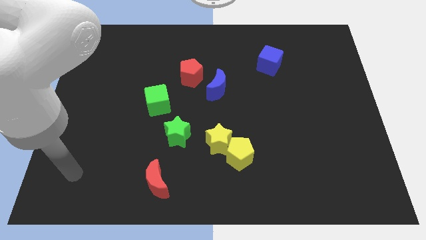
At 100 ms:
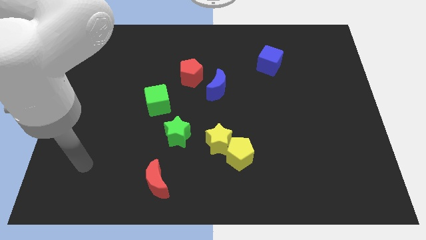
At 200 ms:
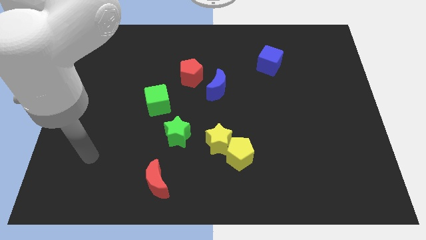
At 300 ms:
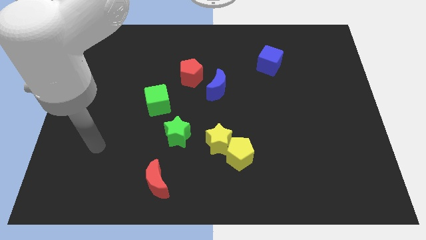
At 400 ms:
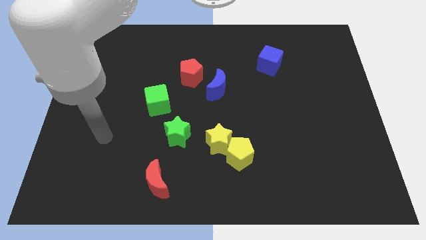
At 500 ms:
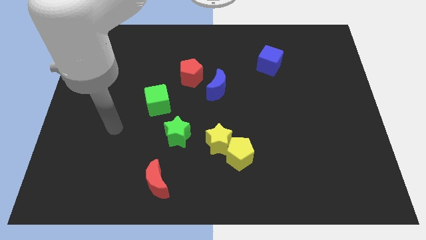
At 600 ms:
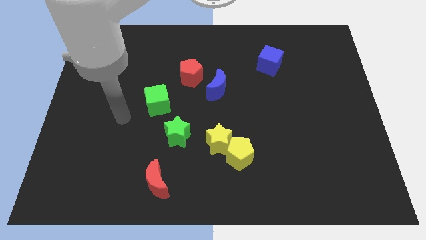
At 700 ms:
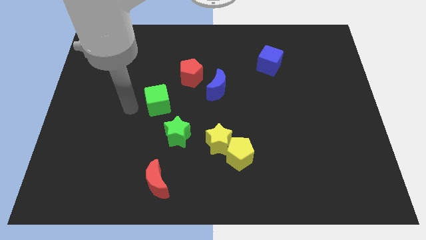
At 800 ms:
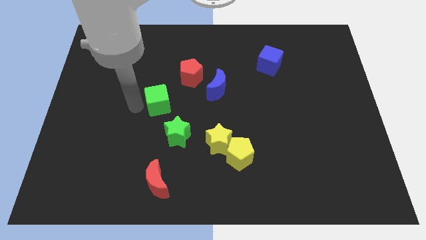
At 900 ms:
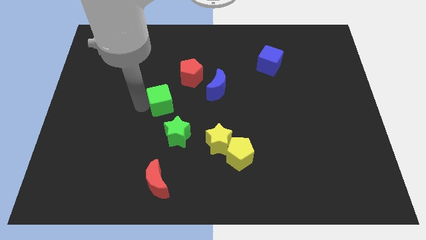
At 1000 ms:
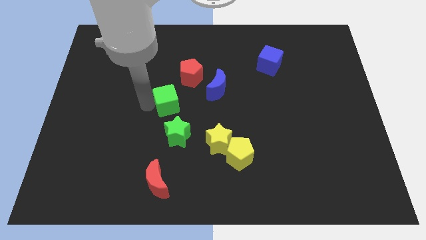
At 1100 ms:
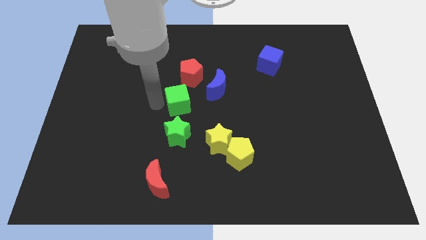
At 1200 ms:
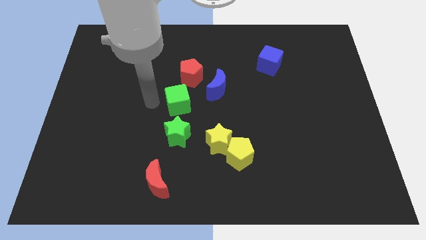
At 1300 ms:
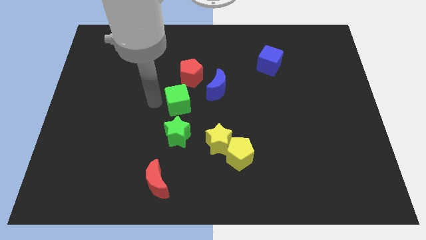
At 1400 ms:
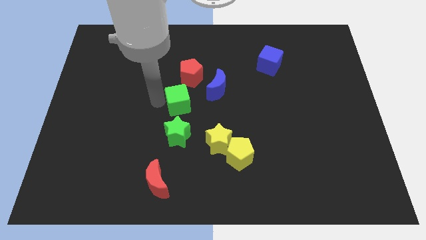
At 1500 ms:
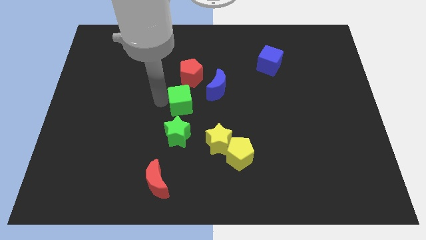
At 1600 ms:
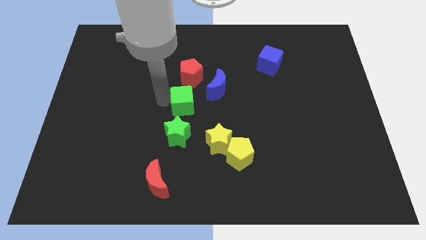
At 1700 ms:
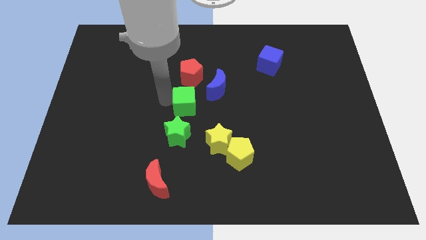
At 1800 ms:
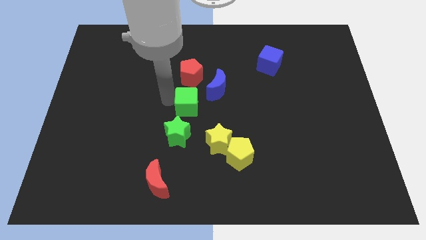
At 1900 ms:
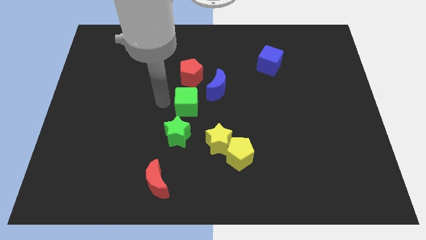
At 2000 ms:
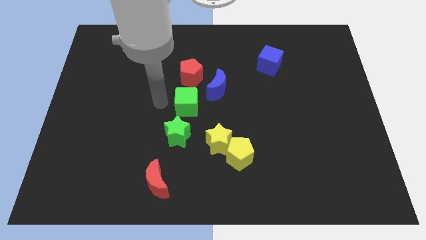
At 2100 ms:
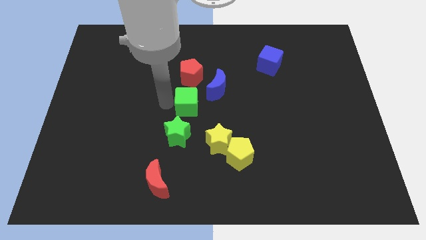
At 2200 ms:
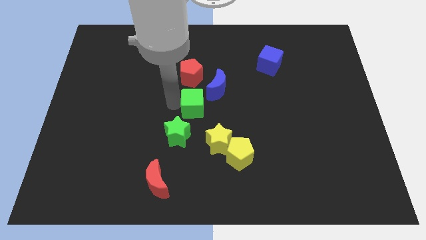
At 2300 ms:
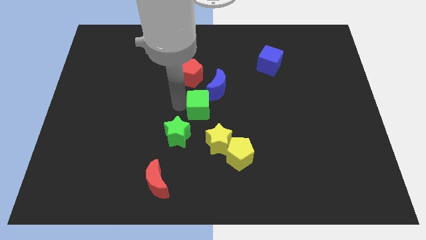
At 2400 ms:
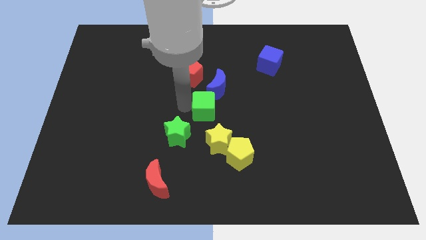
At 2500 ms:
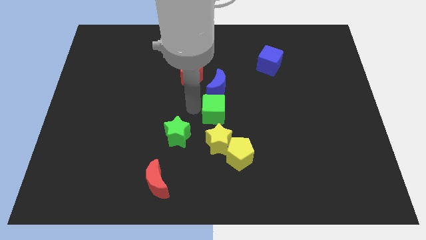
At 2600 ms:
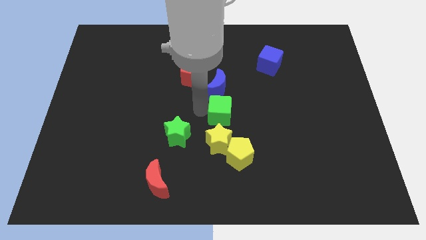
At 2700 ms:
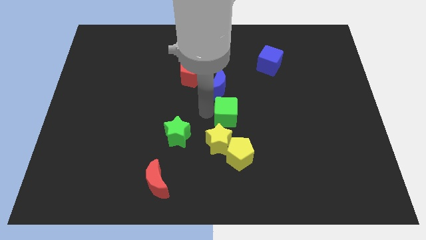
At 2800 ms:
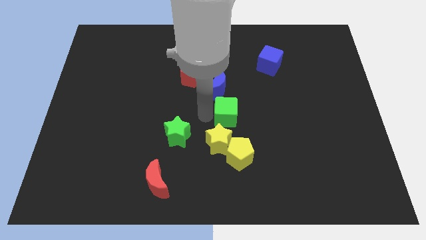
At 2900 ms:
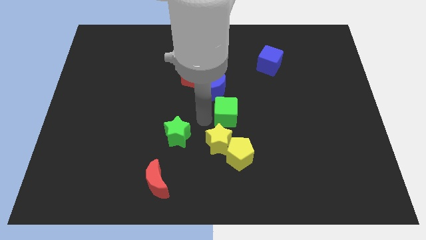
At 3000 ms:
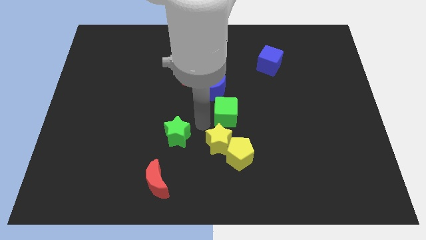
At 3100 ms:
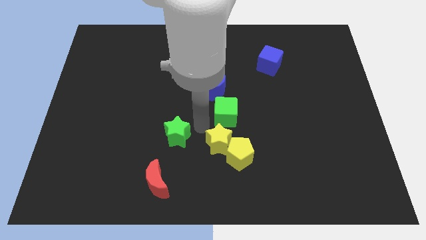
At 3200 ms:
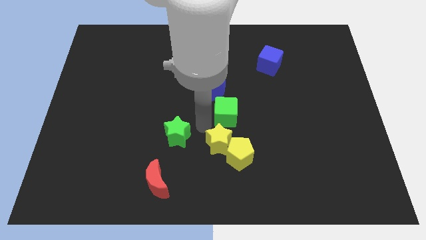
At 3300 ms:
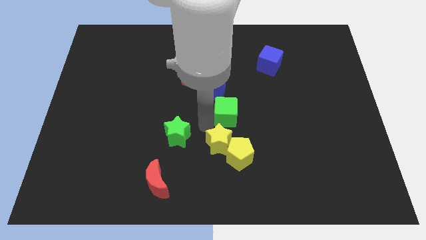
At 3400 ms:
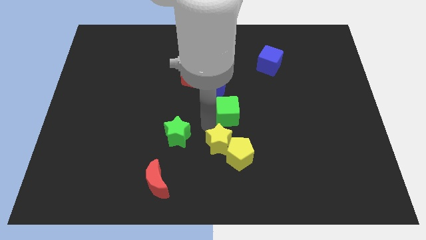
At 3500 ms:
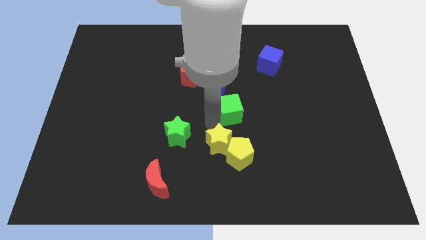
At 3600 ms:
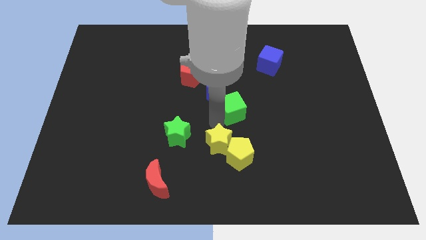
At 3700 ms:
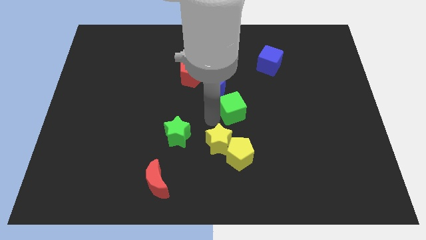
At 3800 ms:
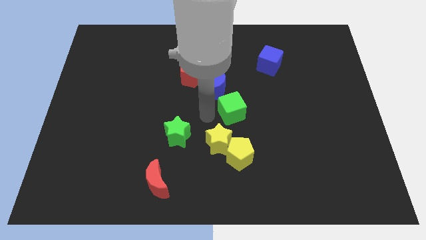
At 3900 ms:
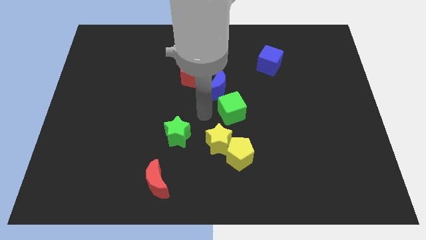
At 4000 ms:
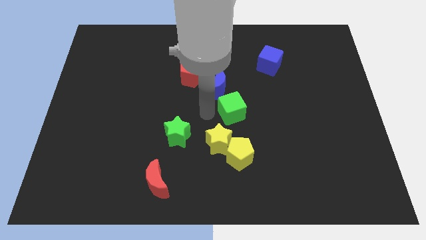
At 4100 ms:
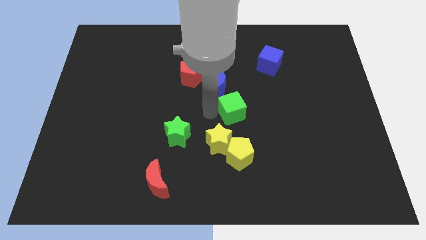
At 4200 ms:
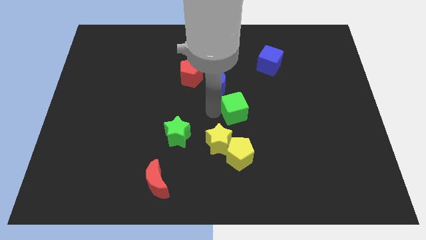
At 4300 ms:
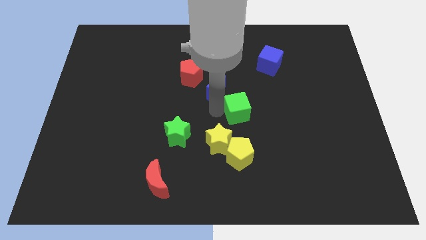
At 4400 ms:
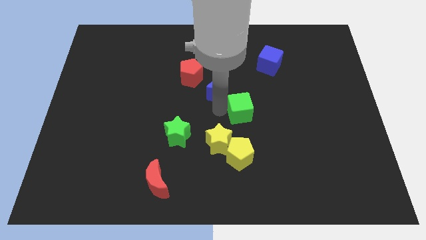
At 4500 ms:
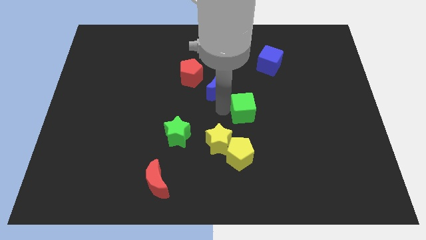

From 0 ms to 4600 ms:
slide the green cube to the right

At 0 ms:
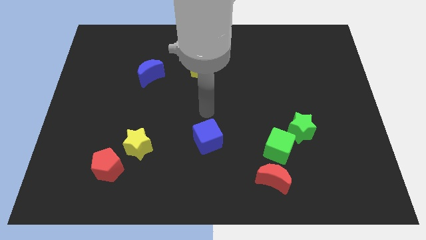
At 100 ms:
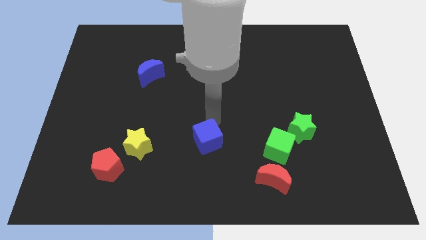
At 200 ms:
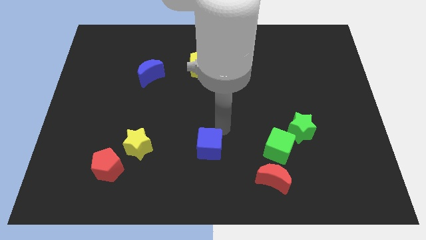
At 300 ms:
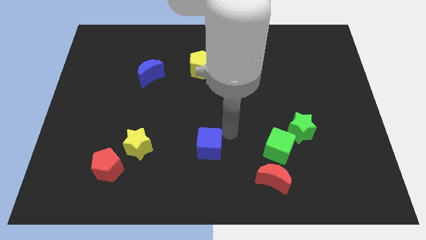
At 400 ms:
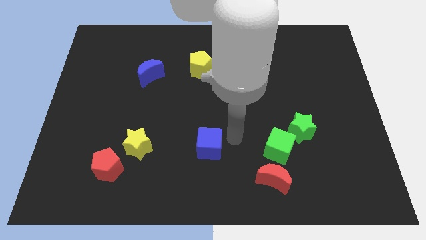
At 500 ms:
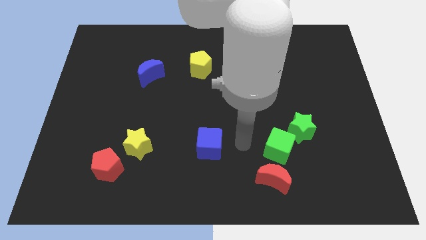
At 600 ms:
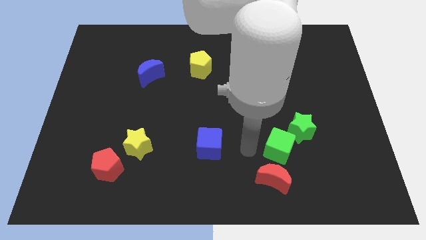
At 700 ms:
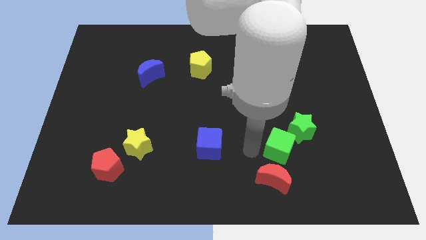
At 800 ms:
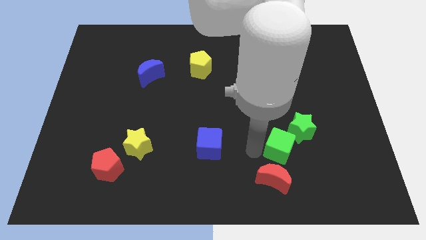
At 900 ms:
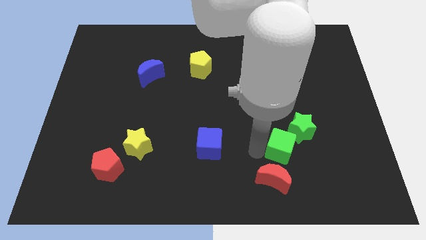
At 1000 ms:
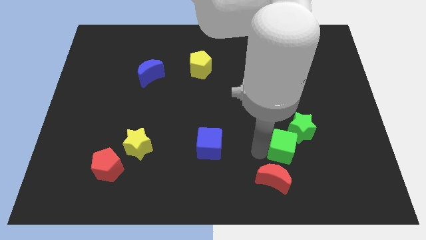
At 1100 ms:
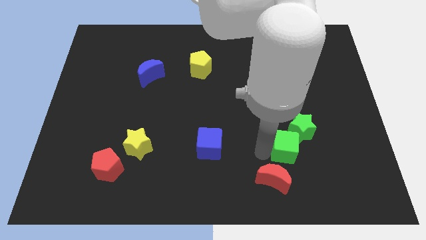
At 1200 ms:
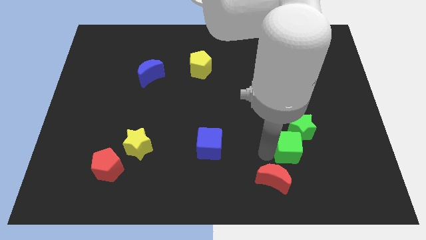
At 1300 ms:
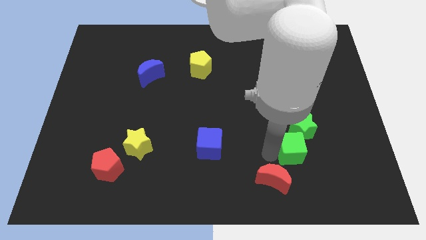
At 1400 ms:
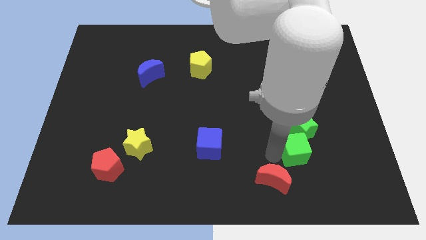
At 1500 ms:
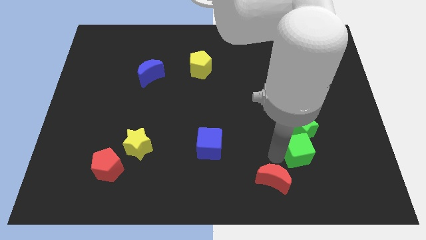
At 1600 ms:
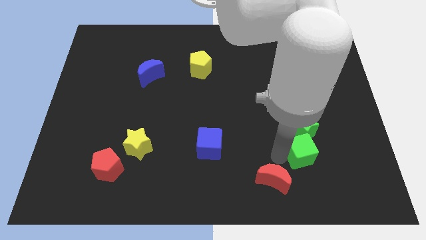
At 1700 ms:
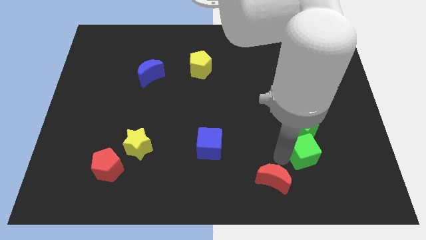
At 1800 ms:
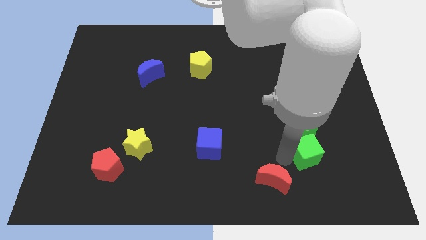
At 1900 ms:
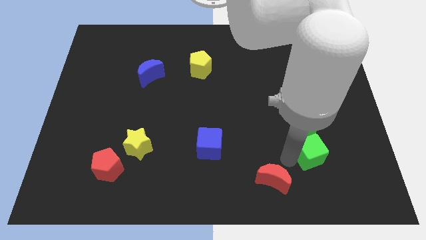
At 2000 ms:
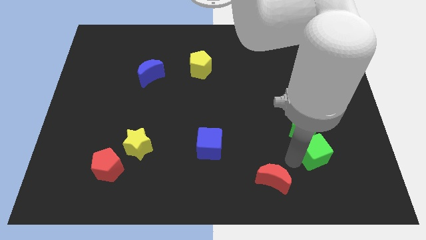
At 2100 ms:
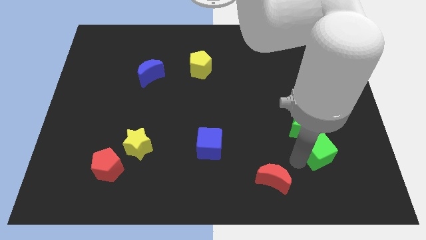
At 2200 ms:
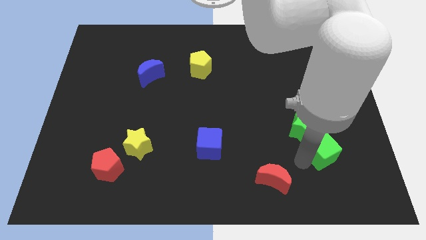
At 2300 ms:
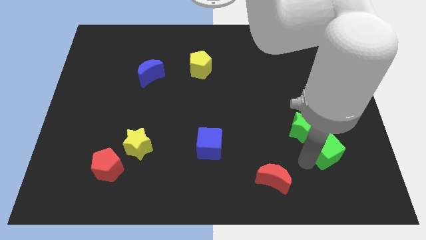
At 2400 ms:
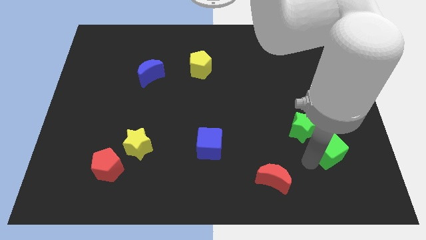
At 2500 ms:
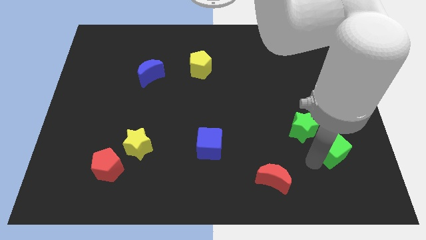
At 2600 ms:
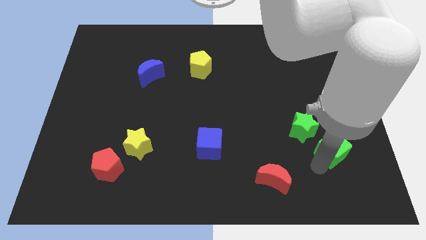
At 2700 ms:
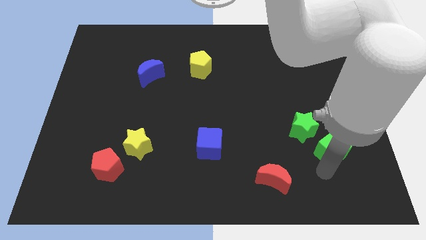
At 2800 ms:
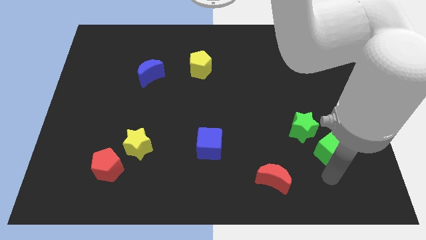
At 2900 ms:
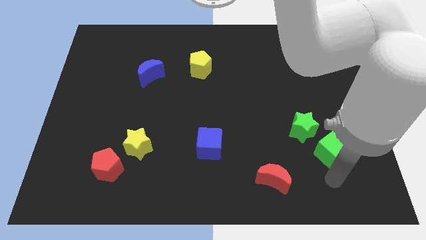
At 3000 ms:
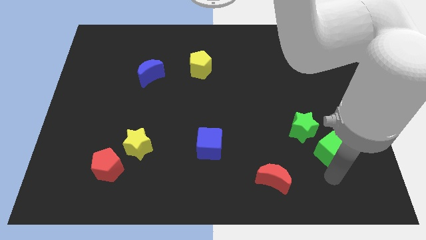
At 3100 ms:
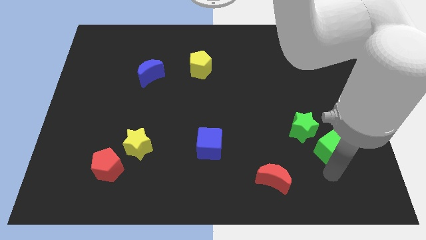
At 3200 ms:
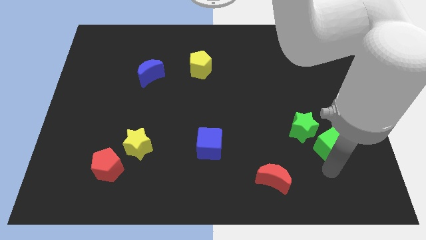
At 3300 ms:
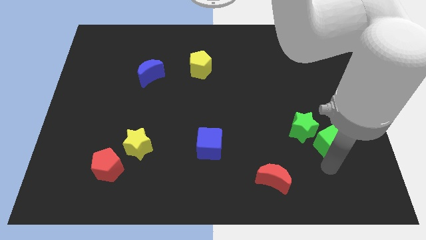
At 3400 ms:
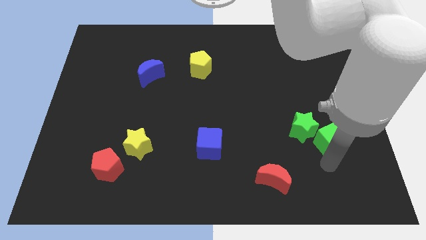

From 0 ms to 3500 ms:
move the green cube up and then to the right a little bit
